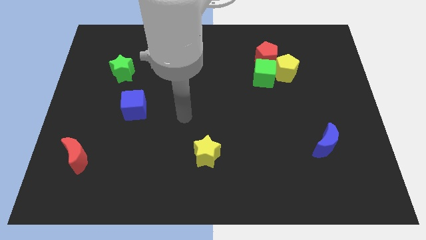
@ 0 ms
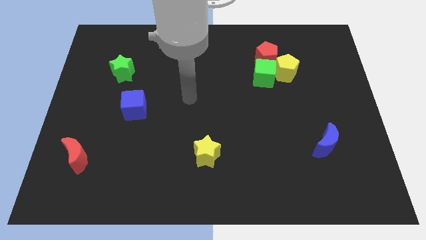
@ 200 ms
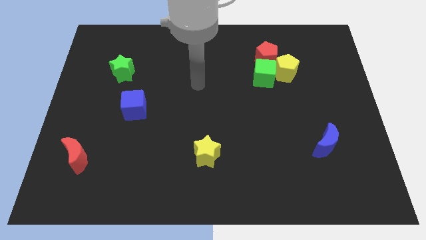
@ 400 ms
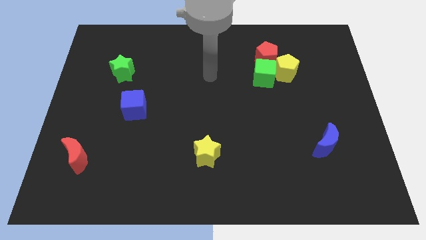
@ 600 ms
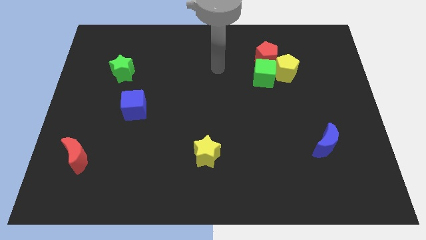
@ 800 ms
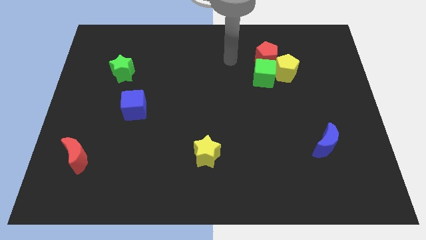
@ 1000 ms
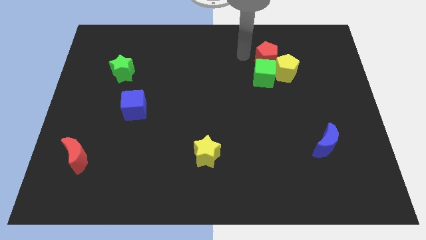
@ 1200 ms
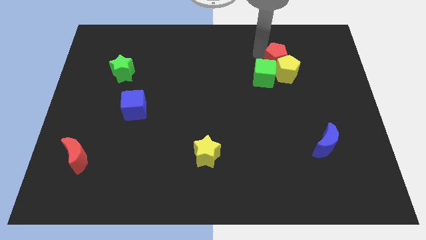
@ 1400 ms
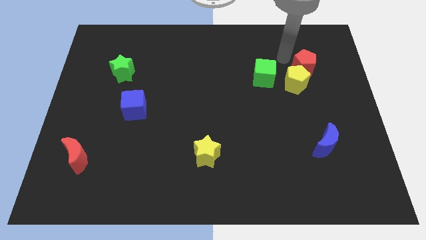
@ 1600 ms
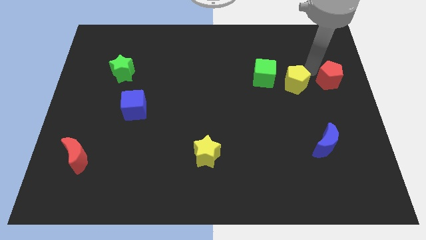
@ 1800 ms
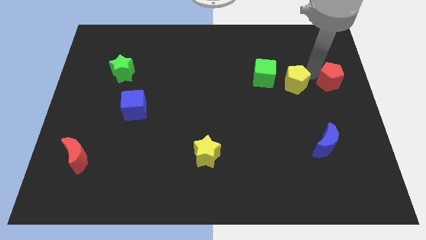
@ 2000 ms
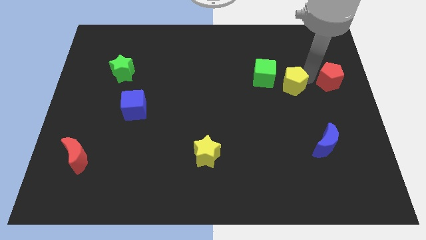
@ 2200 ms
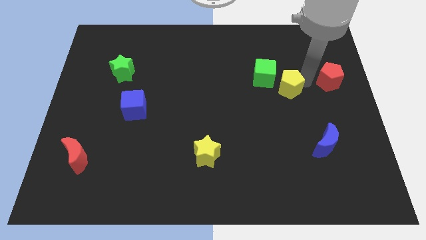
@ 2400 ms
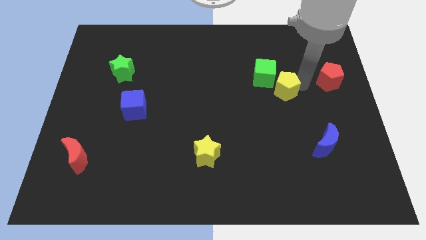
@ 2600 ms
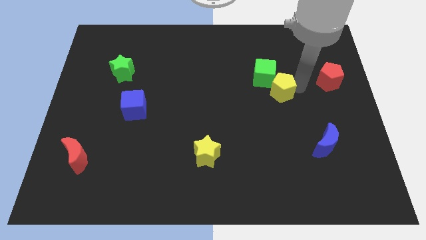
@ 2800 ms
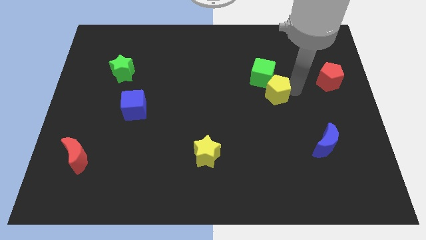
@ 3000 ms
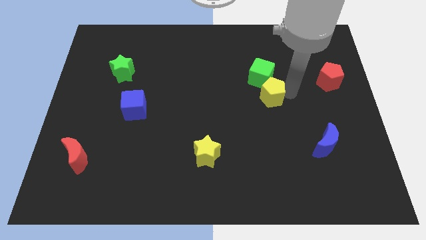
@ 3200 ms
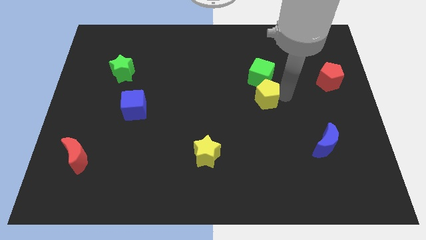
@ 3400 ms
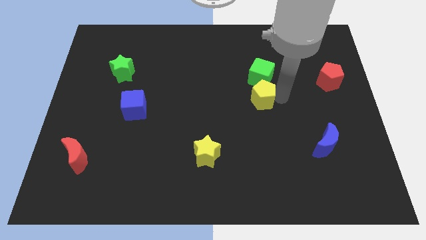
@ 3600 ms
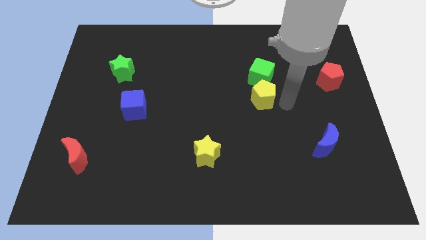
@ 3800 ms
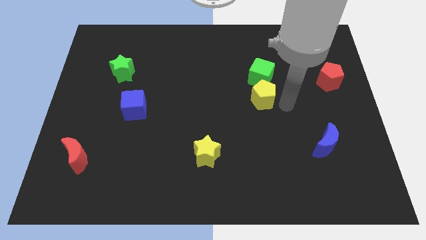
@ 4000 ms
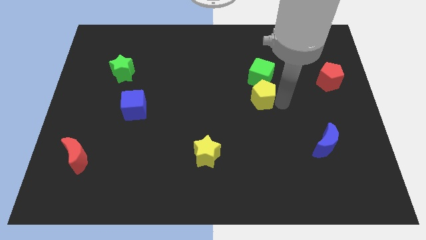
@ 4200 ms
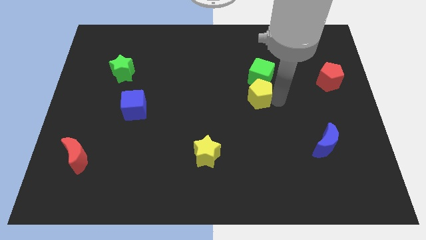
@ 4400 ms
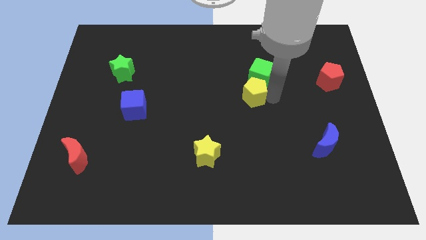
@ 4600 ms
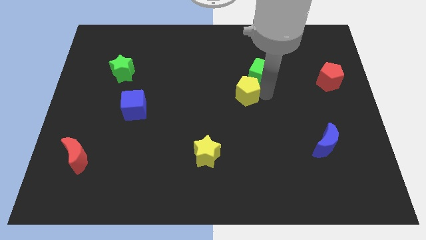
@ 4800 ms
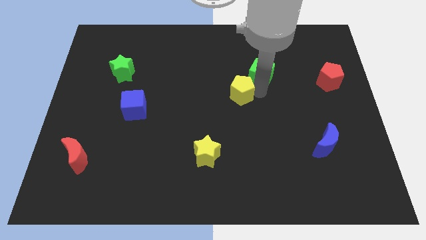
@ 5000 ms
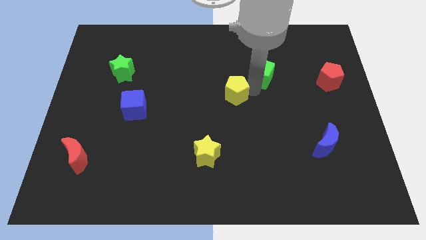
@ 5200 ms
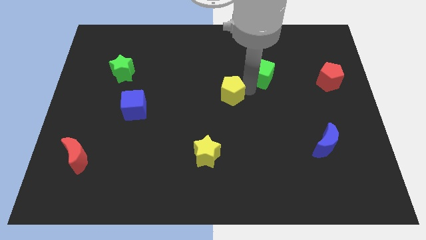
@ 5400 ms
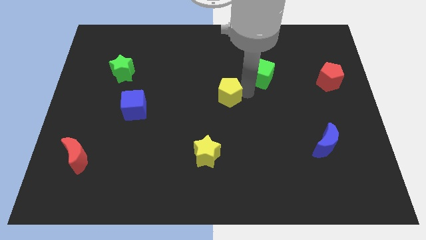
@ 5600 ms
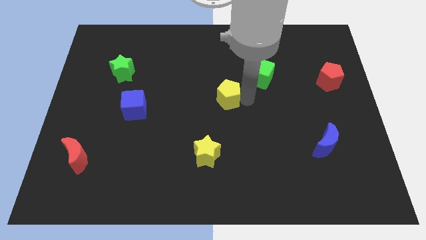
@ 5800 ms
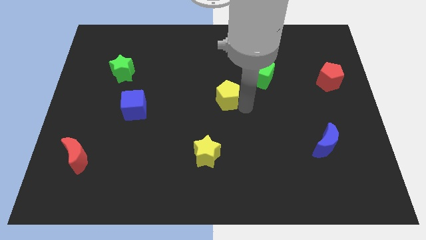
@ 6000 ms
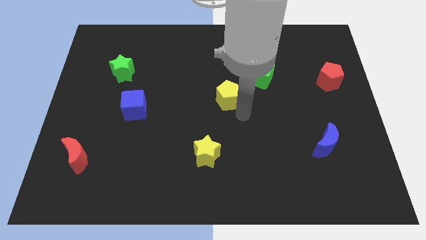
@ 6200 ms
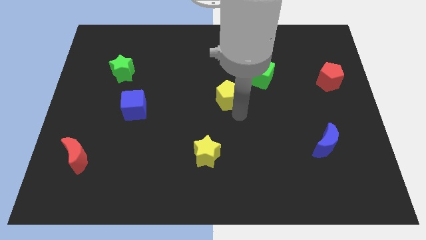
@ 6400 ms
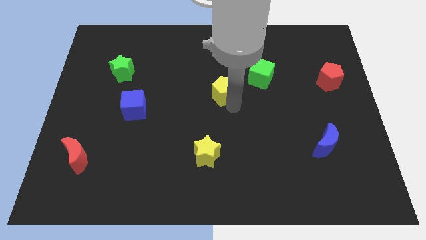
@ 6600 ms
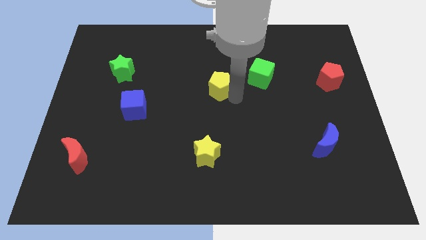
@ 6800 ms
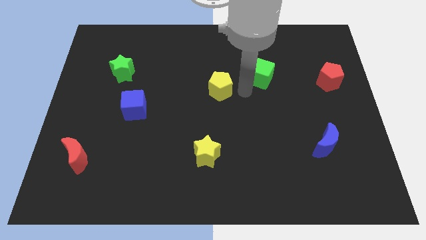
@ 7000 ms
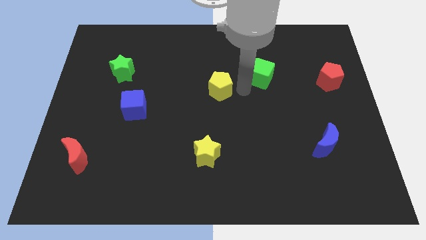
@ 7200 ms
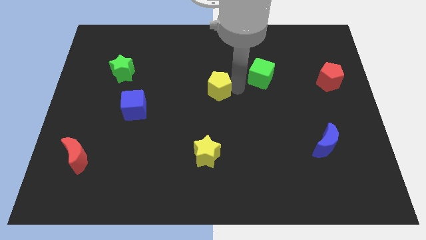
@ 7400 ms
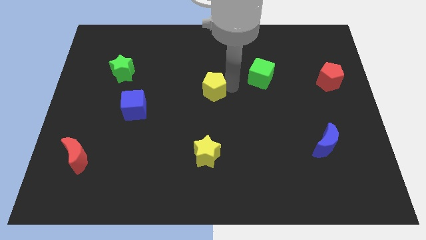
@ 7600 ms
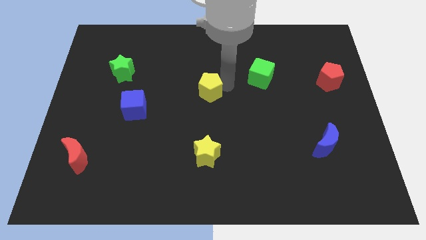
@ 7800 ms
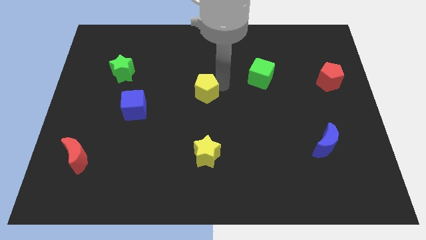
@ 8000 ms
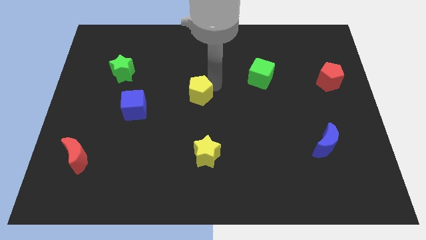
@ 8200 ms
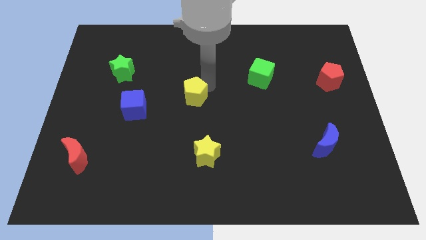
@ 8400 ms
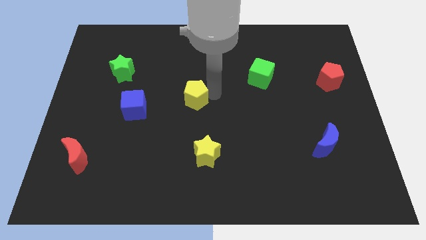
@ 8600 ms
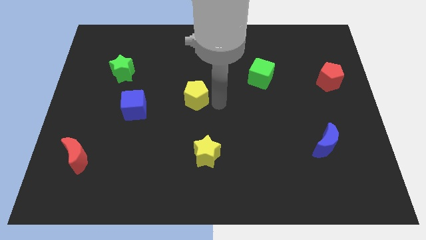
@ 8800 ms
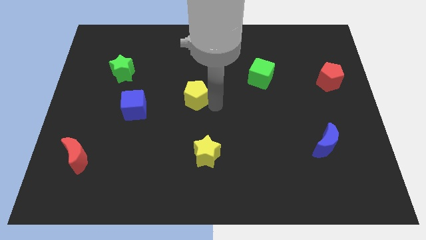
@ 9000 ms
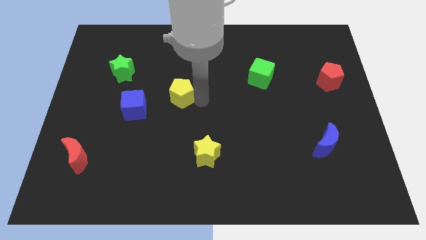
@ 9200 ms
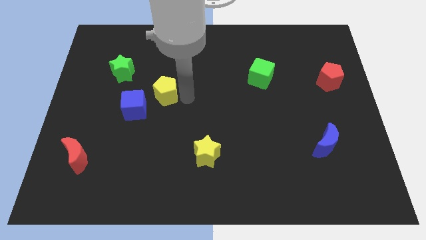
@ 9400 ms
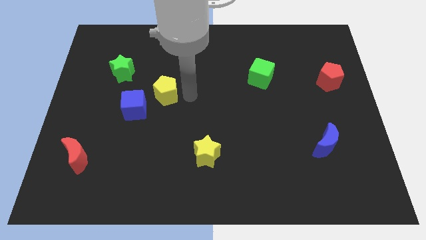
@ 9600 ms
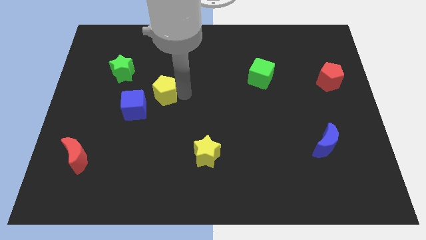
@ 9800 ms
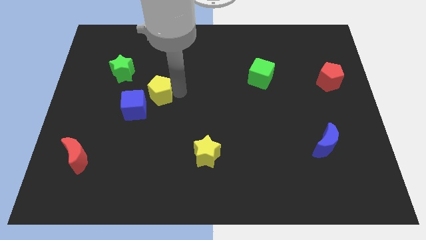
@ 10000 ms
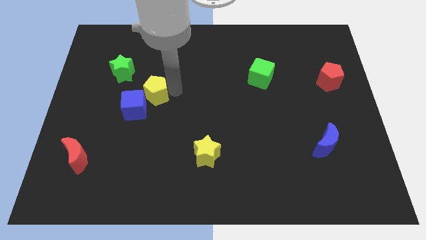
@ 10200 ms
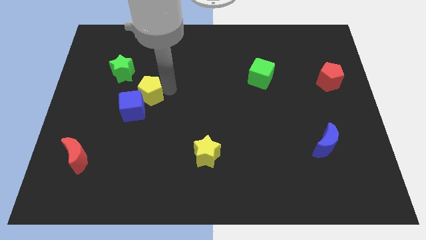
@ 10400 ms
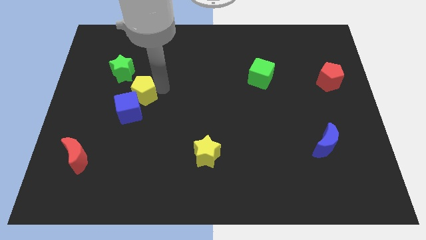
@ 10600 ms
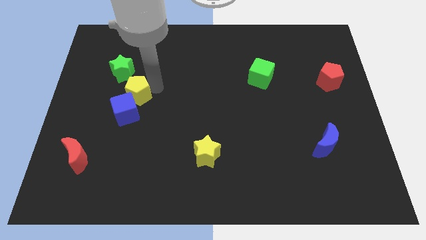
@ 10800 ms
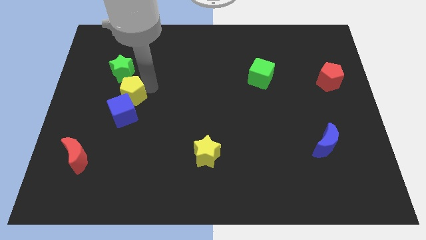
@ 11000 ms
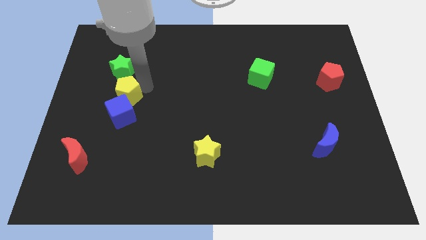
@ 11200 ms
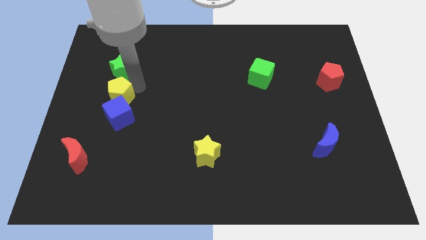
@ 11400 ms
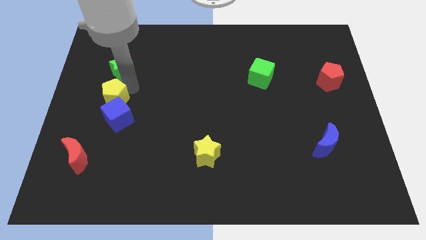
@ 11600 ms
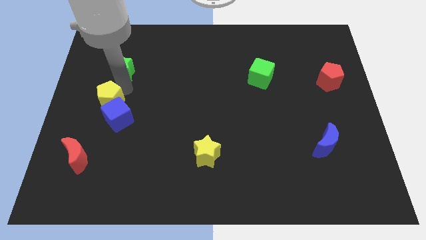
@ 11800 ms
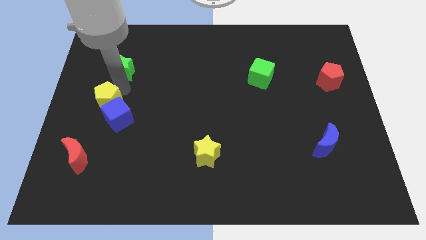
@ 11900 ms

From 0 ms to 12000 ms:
put the yellow pentagon to the left side

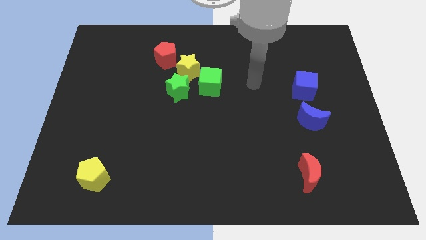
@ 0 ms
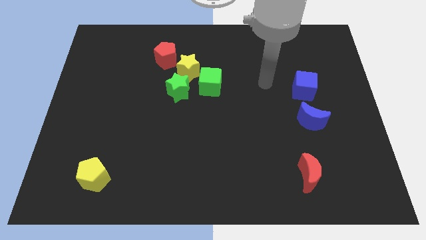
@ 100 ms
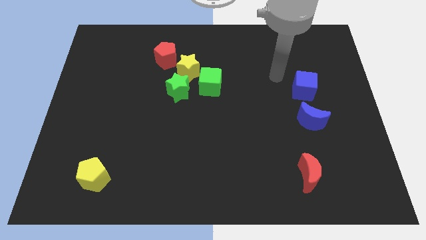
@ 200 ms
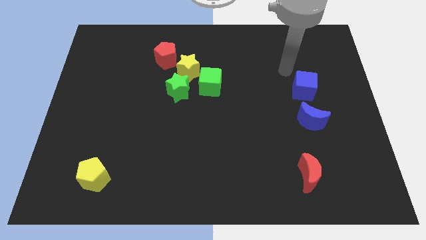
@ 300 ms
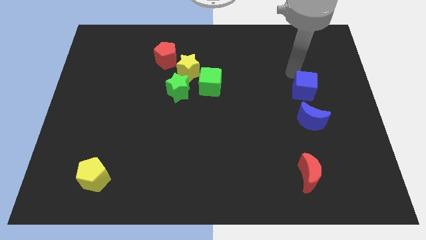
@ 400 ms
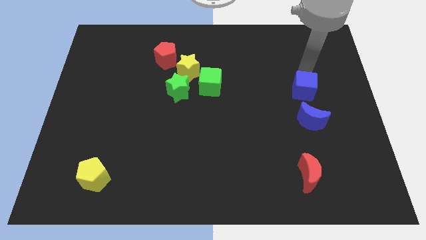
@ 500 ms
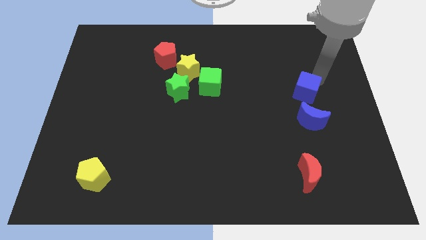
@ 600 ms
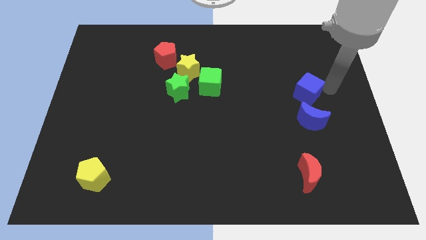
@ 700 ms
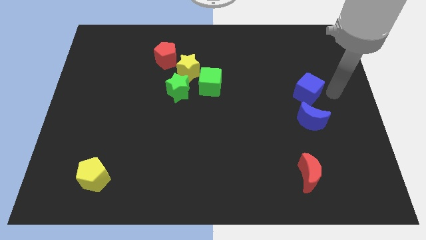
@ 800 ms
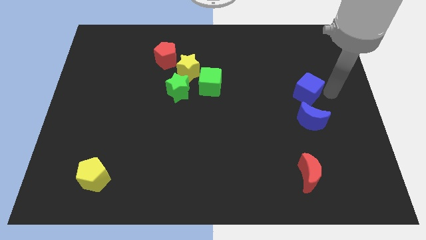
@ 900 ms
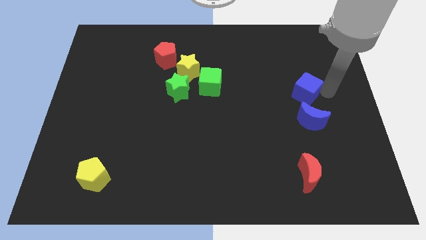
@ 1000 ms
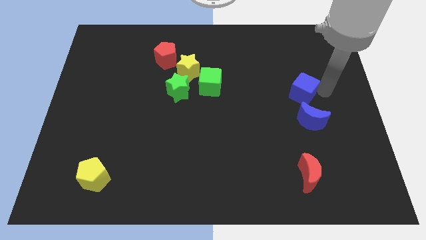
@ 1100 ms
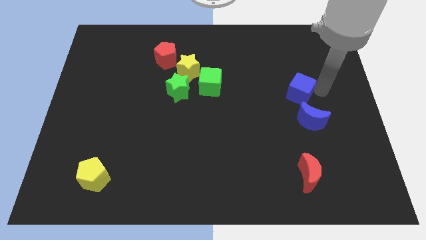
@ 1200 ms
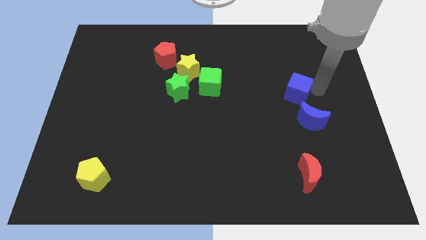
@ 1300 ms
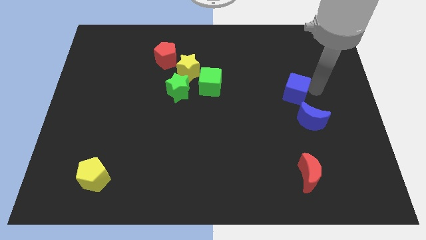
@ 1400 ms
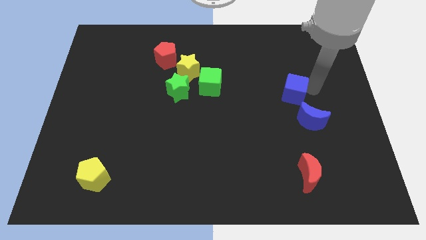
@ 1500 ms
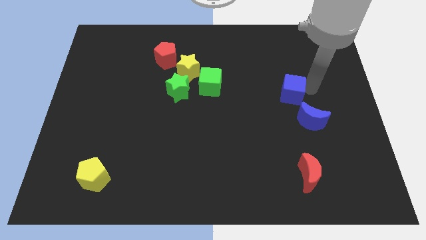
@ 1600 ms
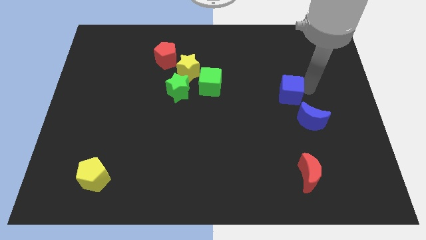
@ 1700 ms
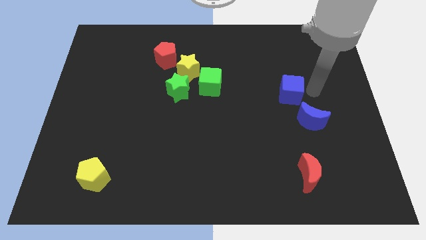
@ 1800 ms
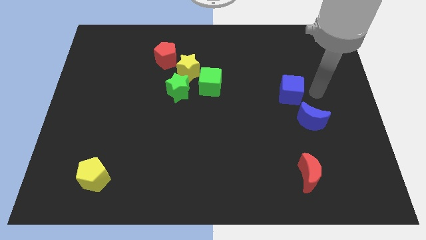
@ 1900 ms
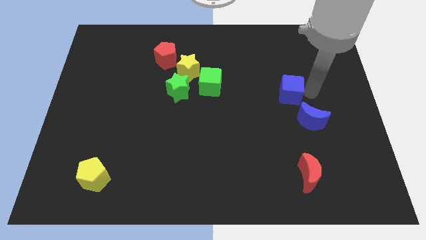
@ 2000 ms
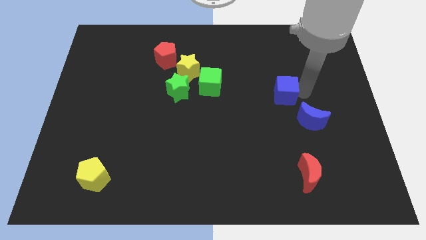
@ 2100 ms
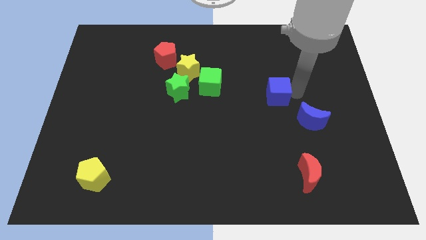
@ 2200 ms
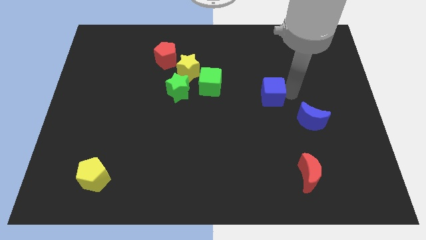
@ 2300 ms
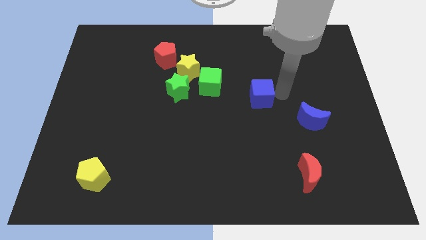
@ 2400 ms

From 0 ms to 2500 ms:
push the blue cube to the center of the board
